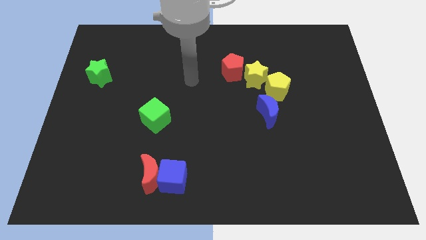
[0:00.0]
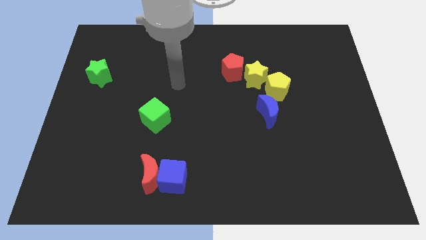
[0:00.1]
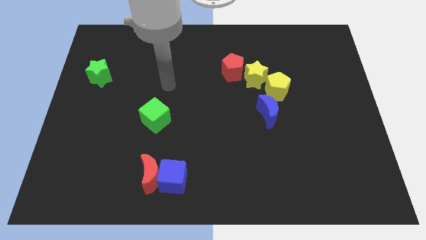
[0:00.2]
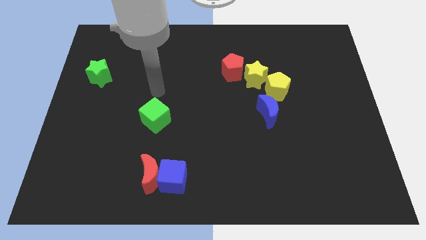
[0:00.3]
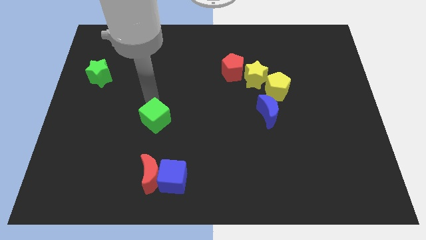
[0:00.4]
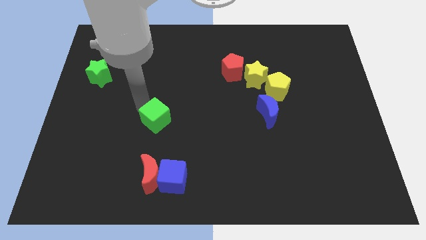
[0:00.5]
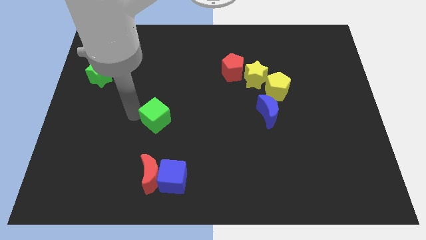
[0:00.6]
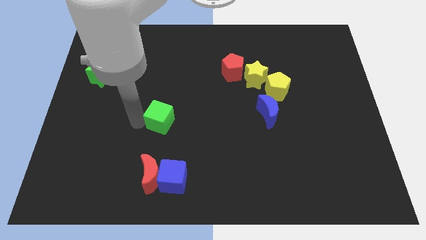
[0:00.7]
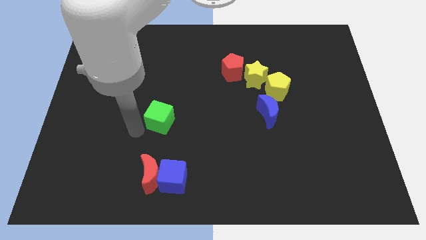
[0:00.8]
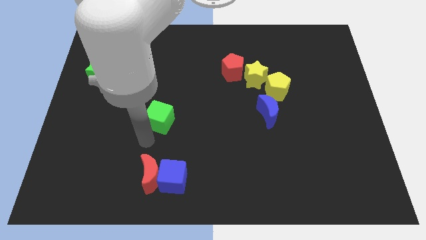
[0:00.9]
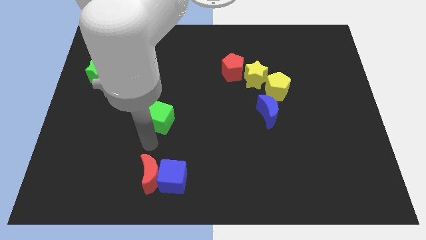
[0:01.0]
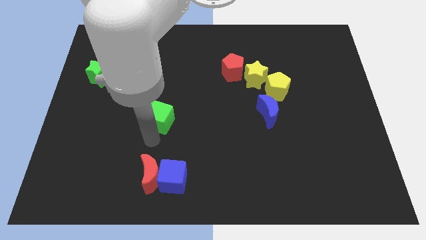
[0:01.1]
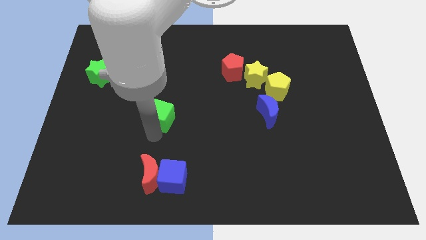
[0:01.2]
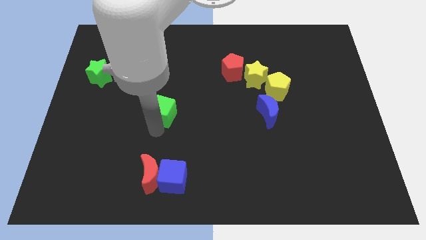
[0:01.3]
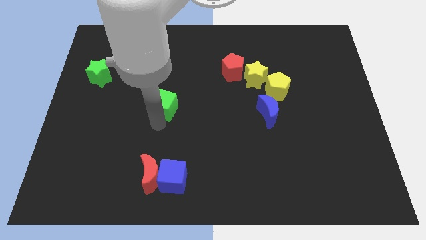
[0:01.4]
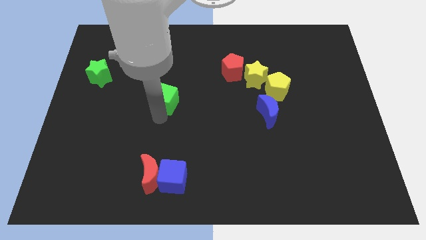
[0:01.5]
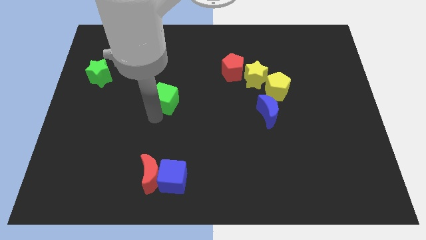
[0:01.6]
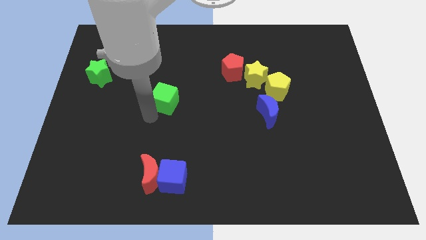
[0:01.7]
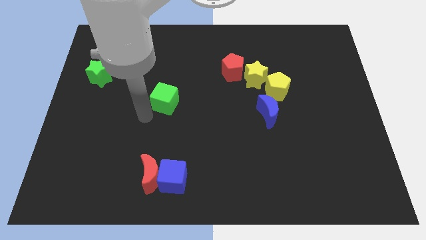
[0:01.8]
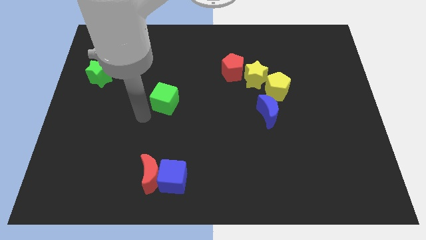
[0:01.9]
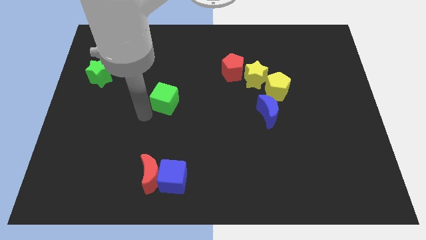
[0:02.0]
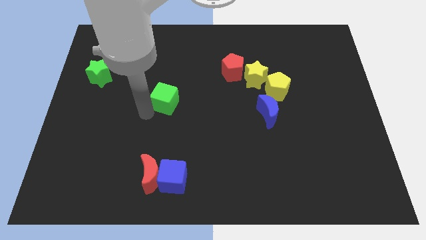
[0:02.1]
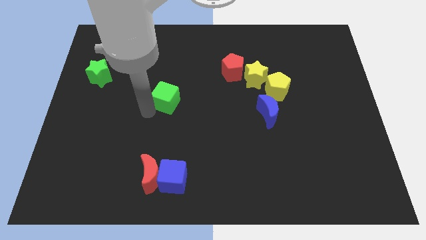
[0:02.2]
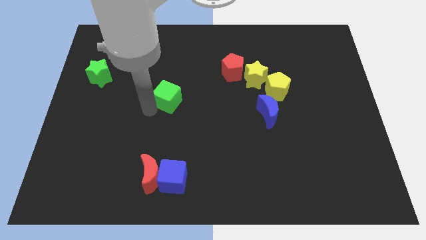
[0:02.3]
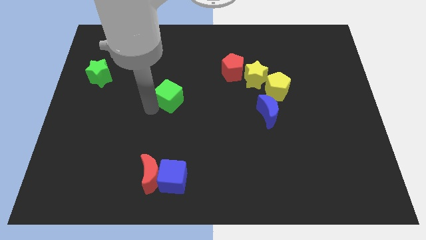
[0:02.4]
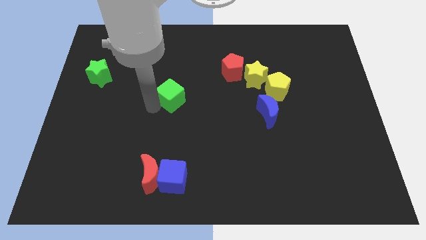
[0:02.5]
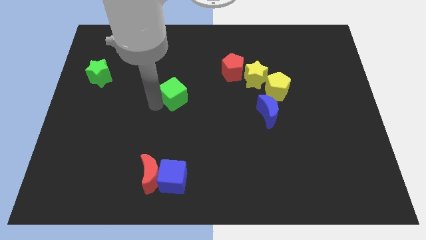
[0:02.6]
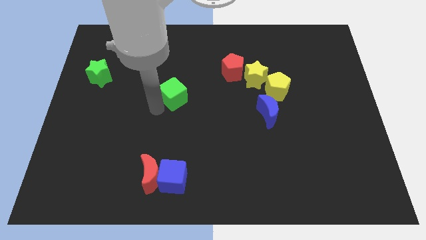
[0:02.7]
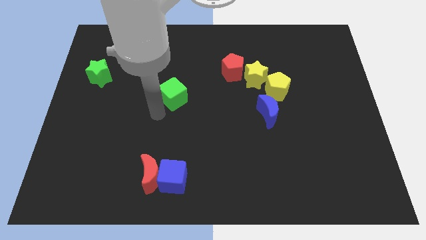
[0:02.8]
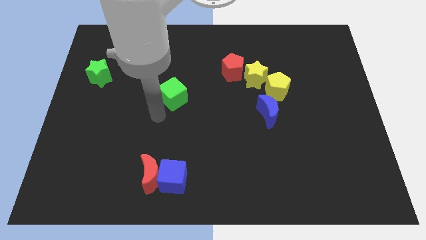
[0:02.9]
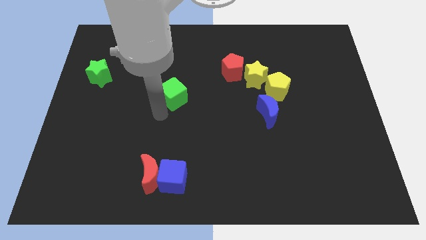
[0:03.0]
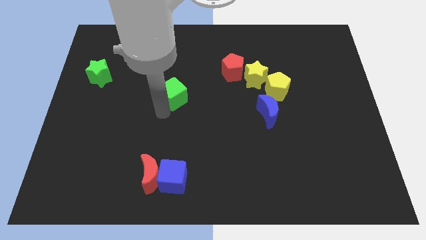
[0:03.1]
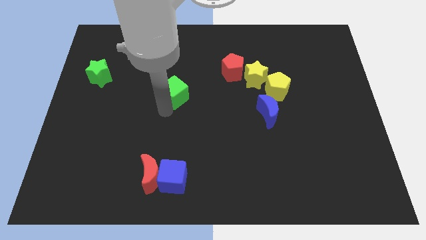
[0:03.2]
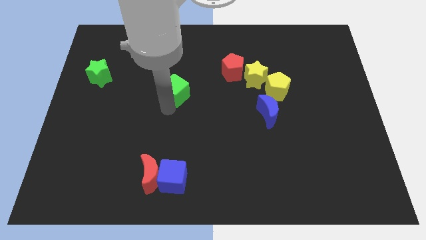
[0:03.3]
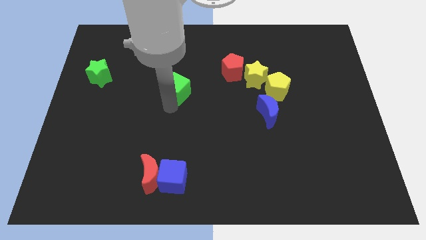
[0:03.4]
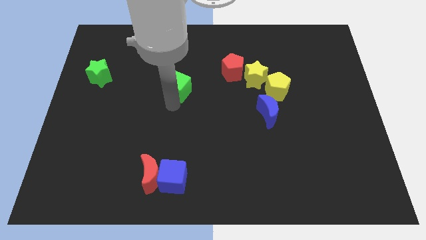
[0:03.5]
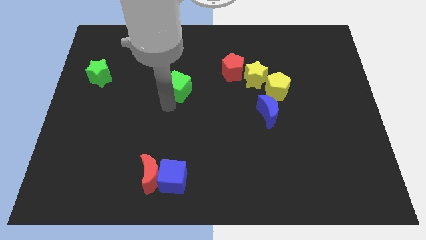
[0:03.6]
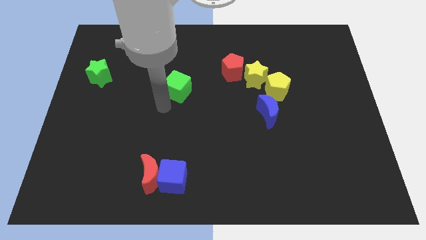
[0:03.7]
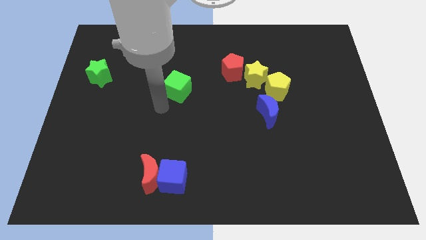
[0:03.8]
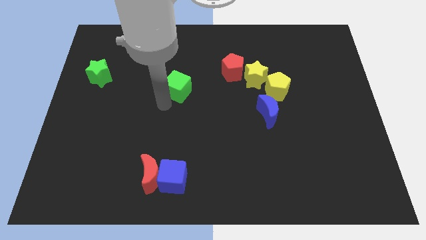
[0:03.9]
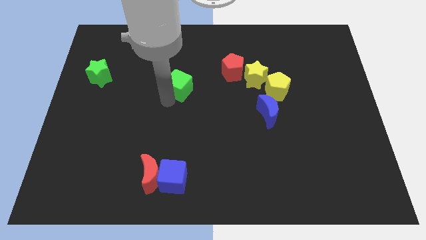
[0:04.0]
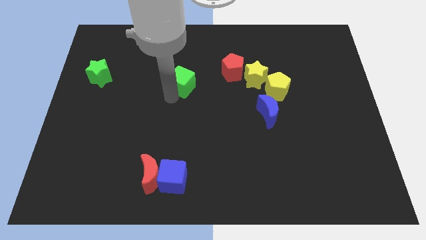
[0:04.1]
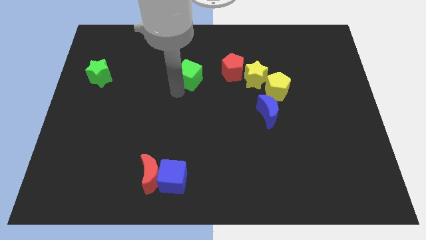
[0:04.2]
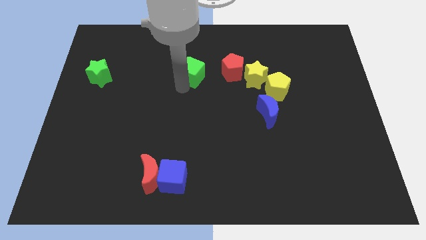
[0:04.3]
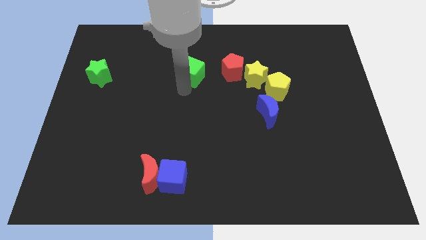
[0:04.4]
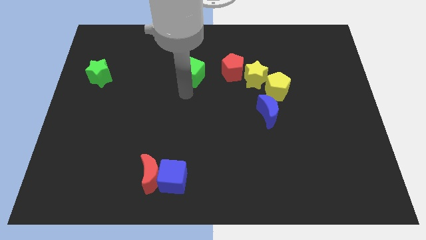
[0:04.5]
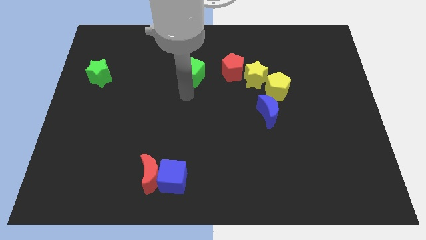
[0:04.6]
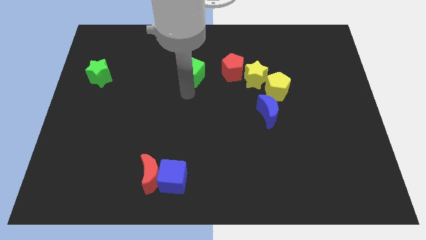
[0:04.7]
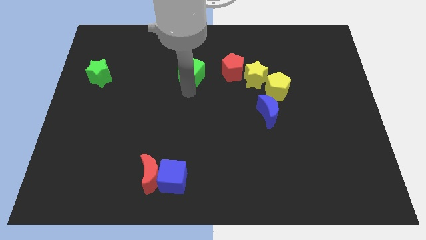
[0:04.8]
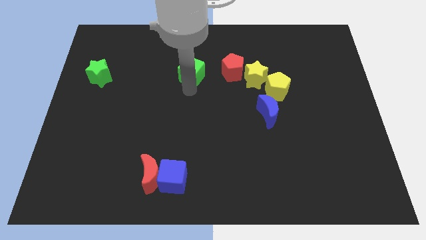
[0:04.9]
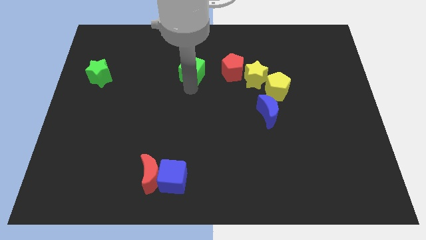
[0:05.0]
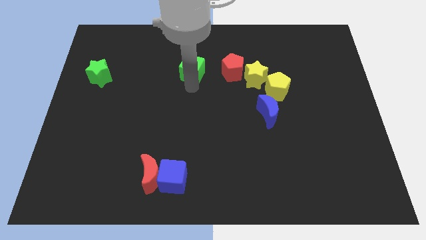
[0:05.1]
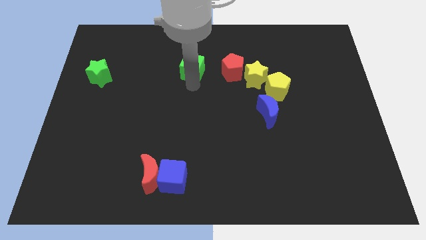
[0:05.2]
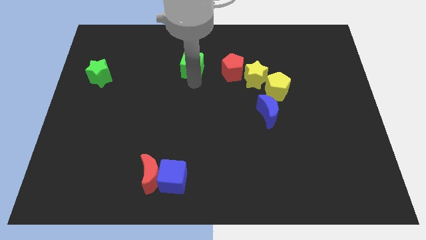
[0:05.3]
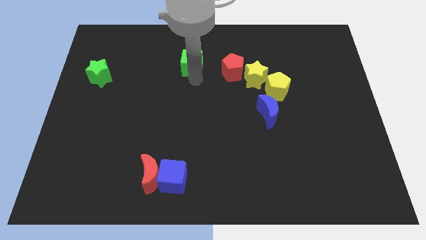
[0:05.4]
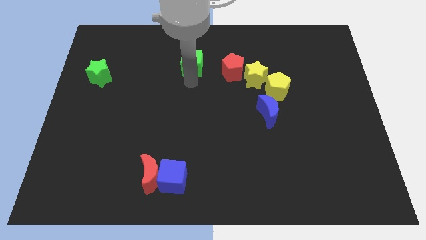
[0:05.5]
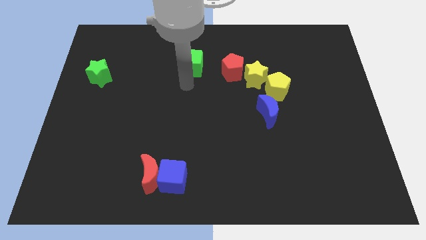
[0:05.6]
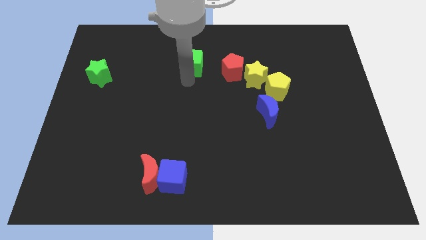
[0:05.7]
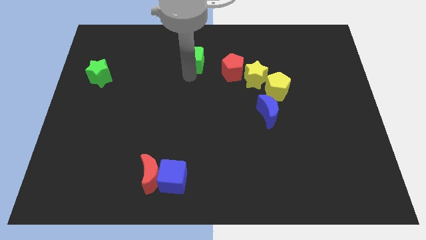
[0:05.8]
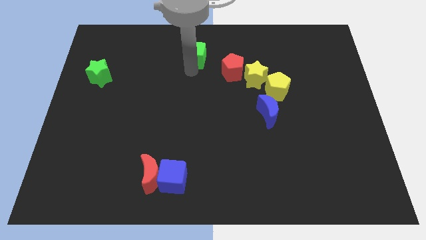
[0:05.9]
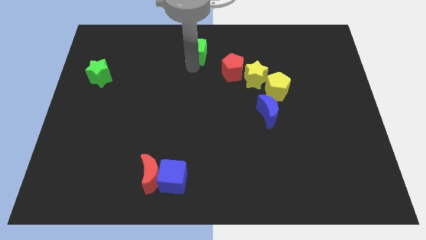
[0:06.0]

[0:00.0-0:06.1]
slide the green cube to the towards your base
